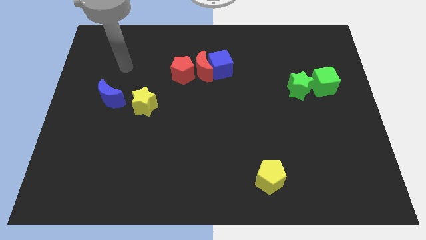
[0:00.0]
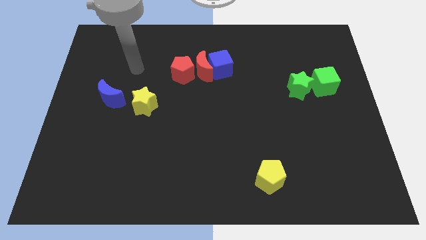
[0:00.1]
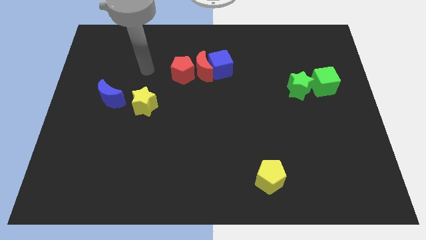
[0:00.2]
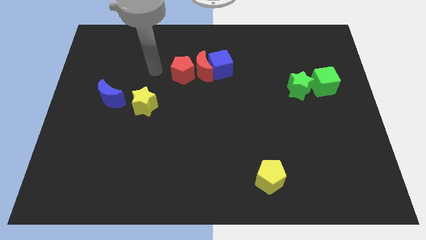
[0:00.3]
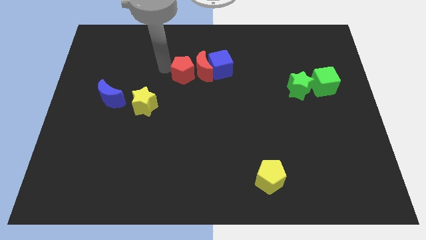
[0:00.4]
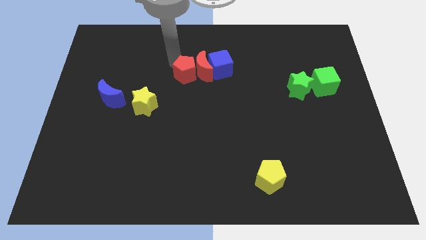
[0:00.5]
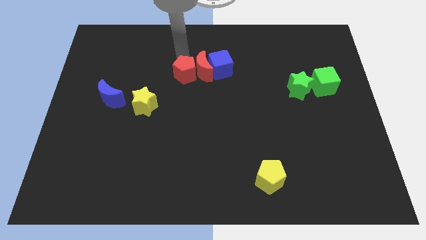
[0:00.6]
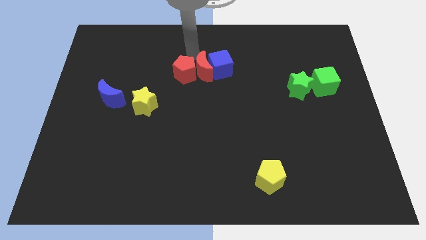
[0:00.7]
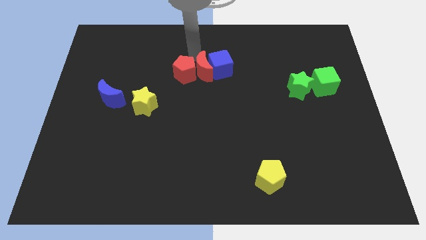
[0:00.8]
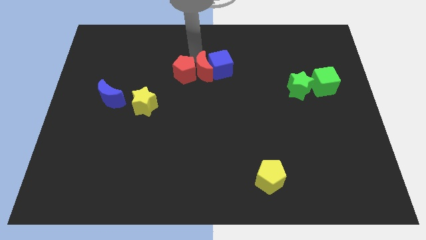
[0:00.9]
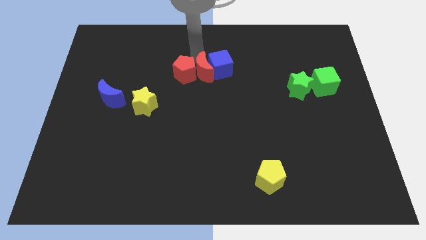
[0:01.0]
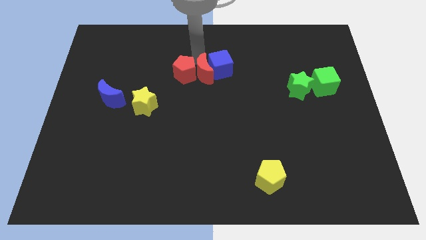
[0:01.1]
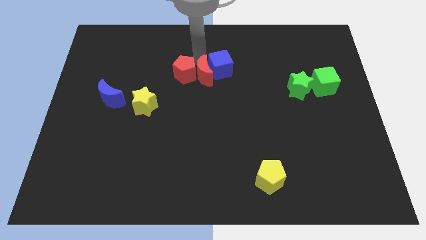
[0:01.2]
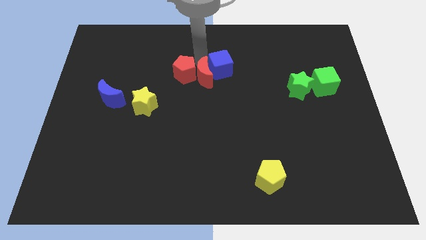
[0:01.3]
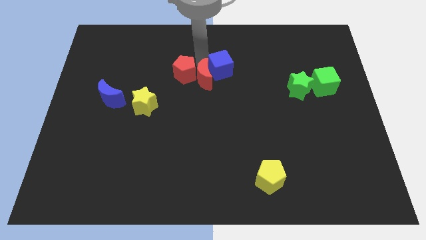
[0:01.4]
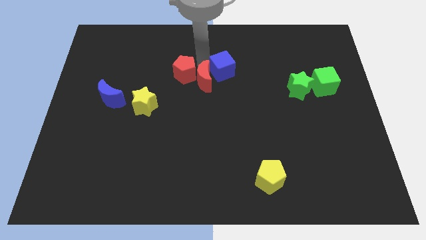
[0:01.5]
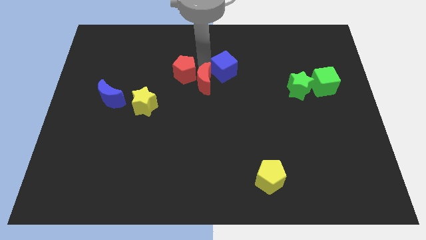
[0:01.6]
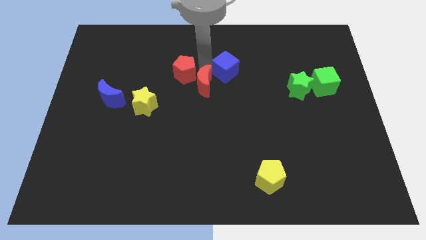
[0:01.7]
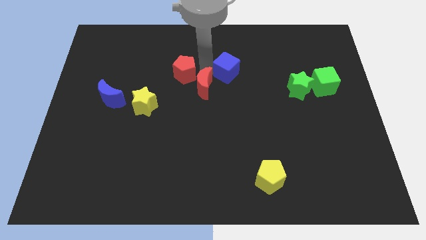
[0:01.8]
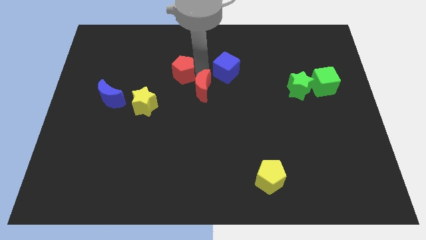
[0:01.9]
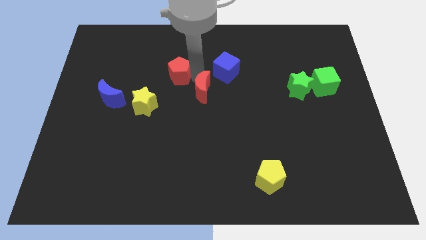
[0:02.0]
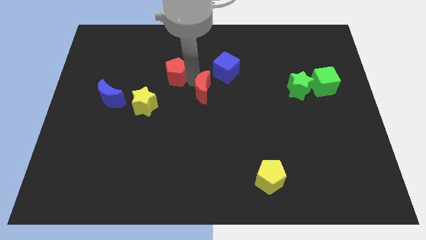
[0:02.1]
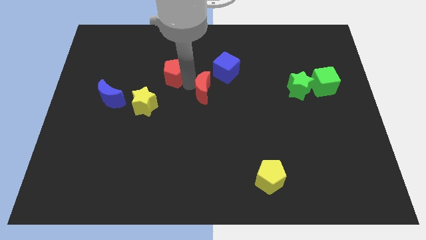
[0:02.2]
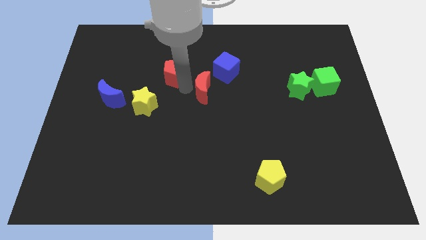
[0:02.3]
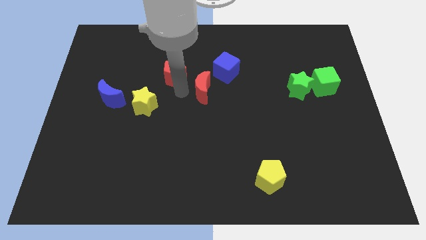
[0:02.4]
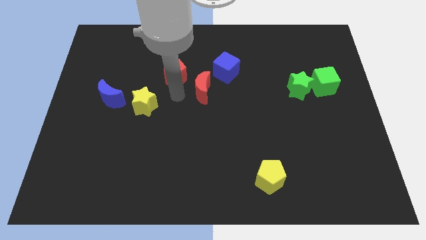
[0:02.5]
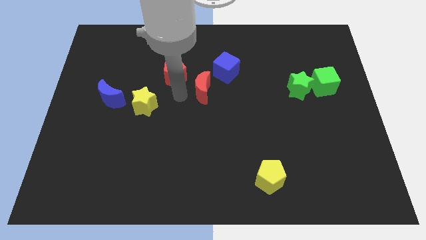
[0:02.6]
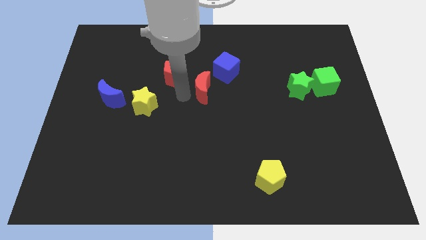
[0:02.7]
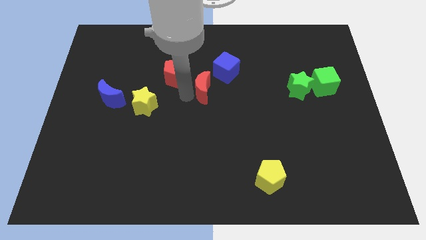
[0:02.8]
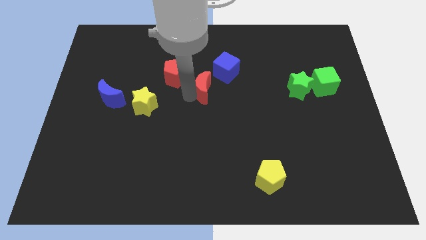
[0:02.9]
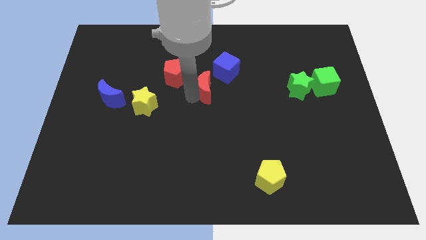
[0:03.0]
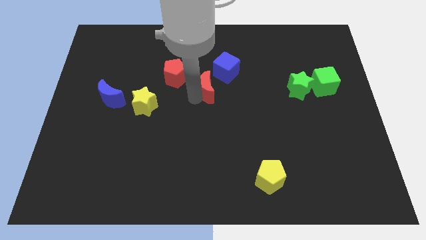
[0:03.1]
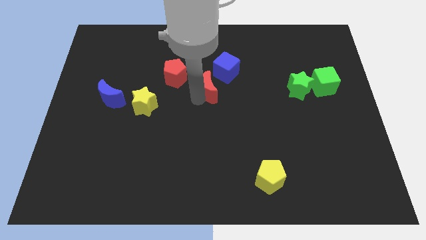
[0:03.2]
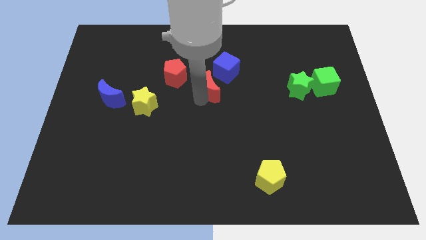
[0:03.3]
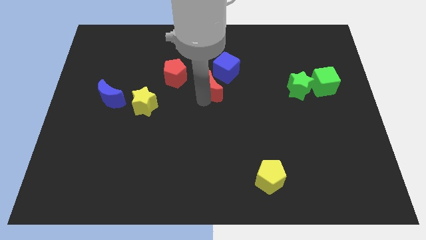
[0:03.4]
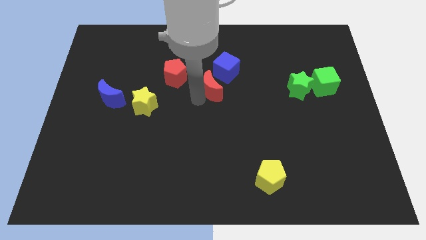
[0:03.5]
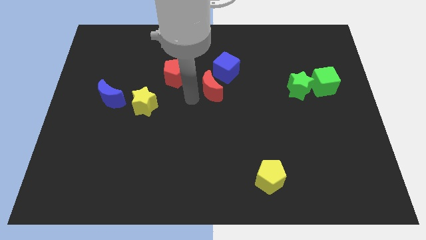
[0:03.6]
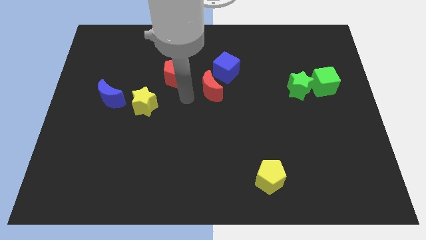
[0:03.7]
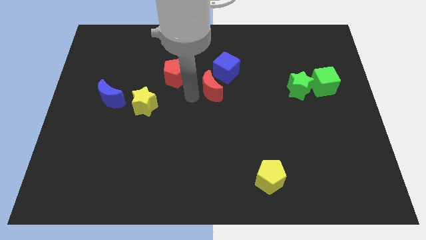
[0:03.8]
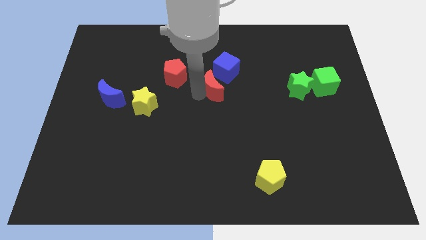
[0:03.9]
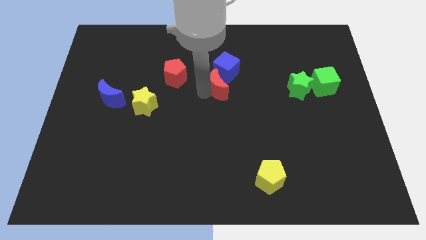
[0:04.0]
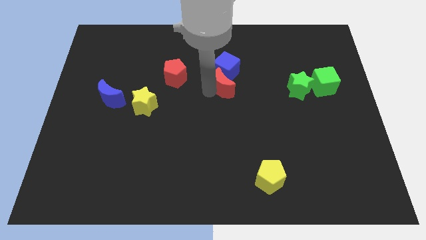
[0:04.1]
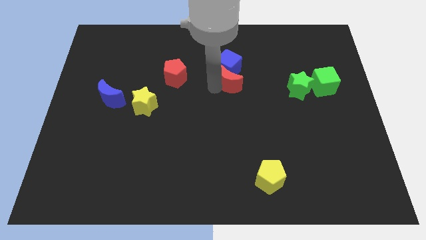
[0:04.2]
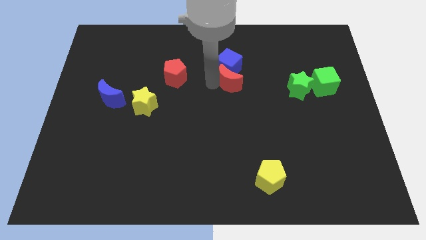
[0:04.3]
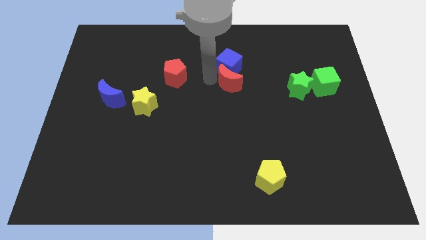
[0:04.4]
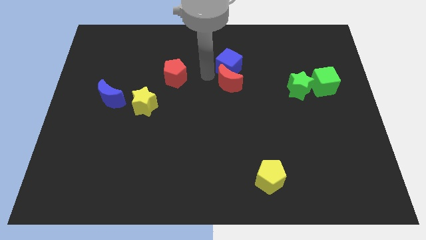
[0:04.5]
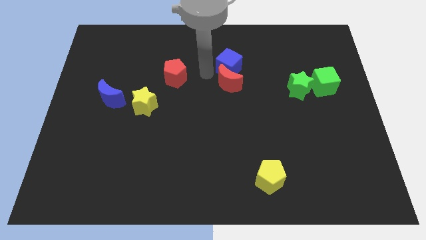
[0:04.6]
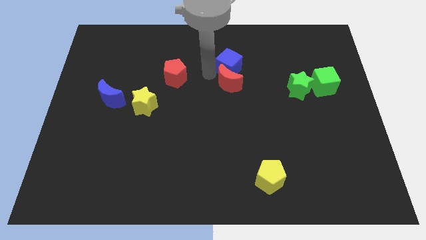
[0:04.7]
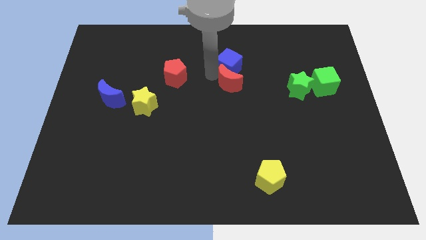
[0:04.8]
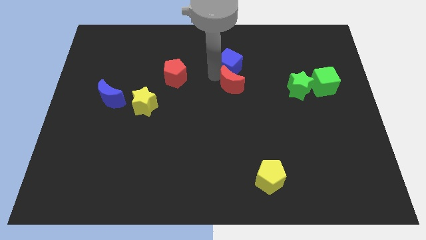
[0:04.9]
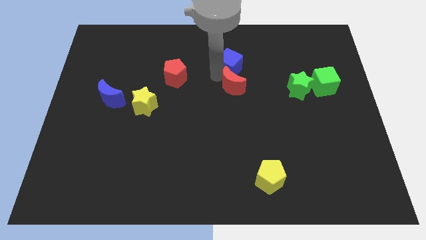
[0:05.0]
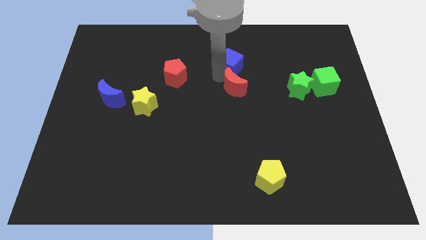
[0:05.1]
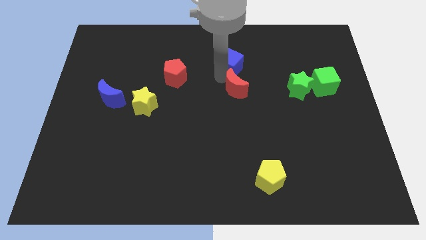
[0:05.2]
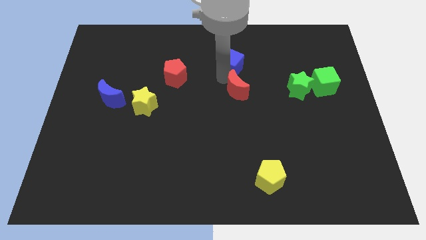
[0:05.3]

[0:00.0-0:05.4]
move the red moon away from the blue cube and red pentagon

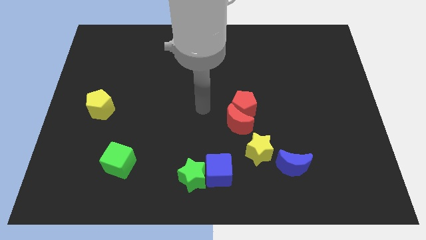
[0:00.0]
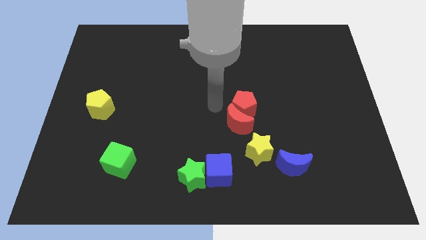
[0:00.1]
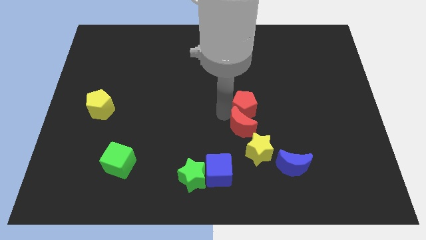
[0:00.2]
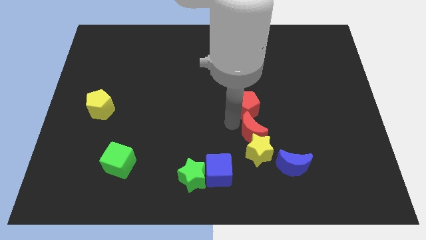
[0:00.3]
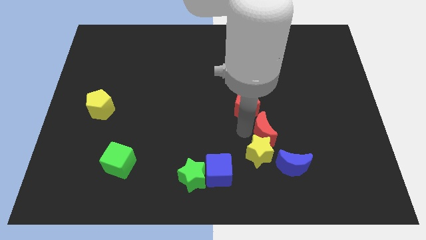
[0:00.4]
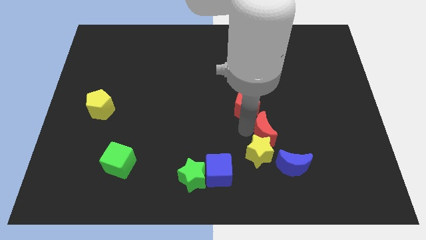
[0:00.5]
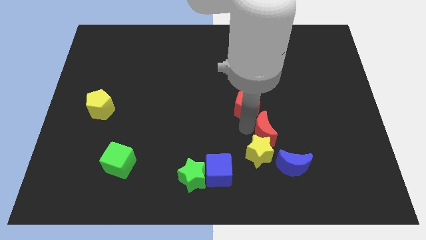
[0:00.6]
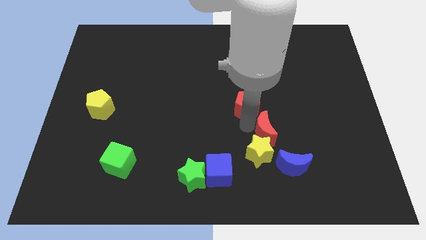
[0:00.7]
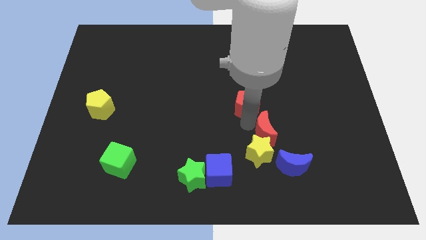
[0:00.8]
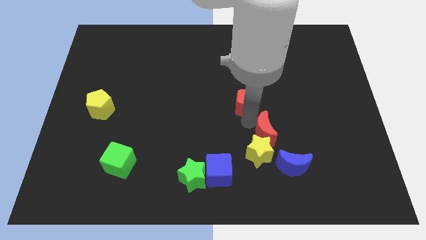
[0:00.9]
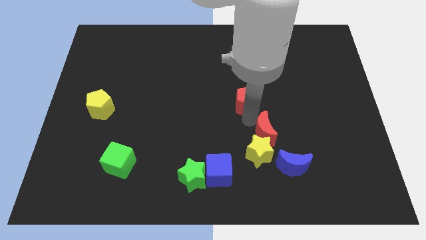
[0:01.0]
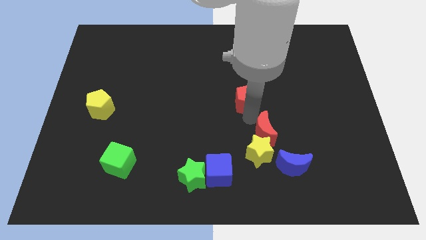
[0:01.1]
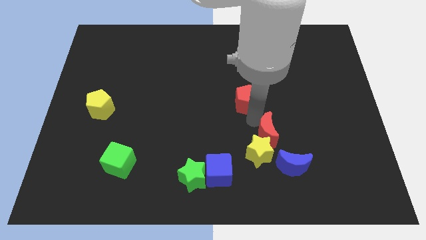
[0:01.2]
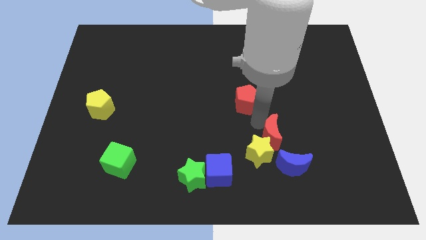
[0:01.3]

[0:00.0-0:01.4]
move the red pentagon away from the red moon

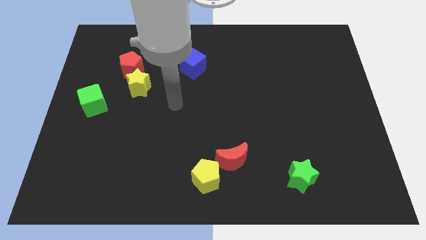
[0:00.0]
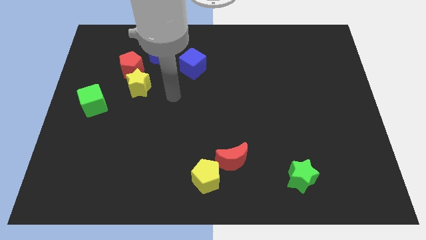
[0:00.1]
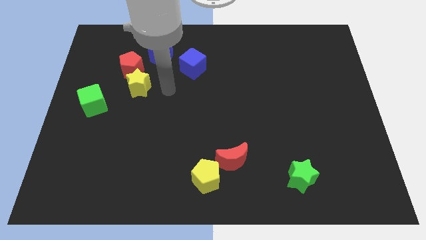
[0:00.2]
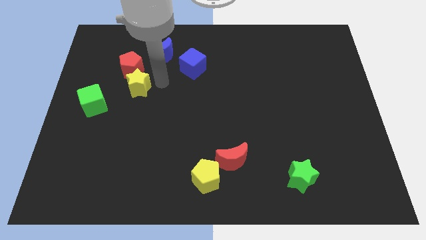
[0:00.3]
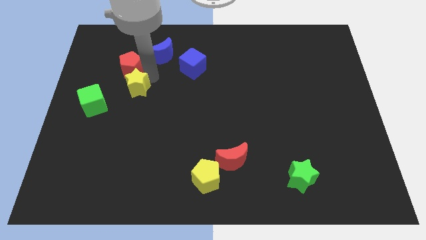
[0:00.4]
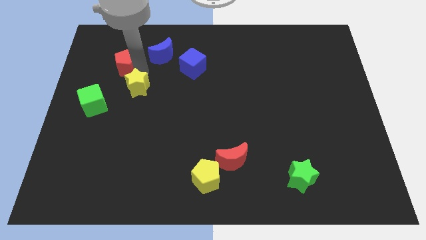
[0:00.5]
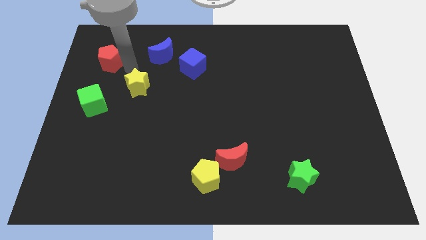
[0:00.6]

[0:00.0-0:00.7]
pull the yellow star apart from the red pentagon

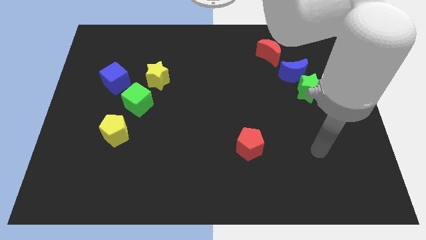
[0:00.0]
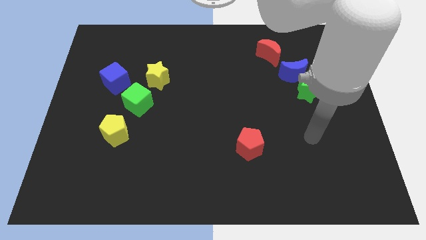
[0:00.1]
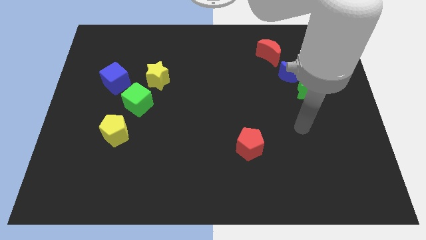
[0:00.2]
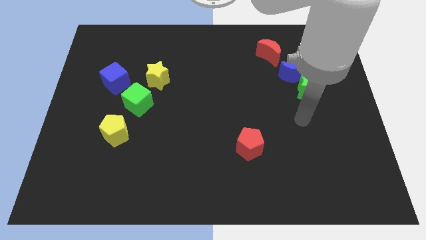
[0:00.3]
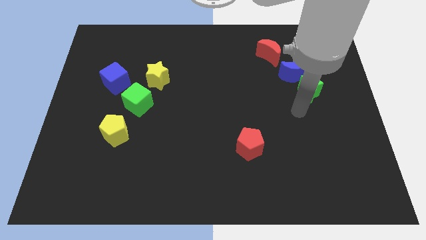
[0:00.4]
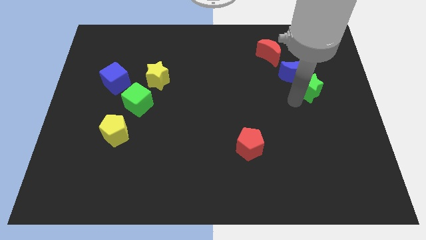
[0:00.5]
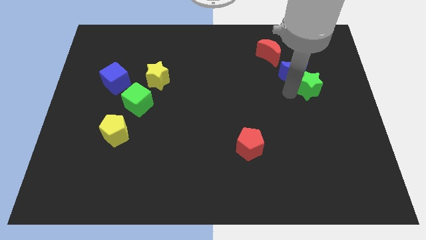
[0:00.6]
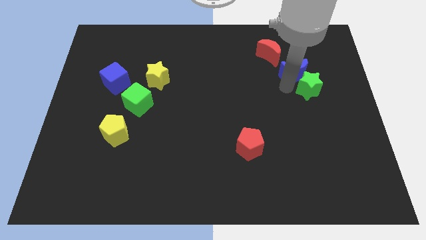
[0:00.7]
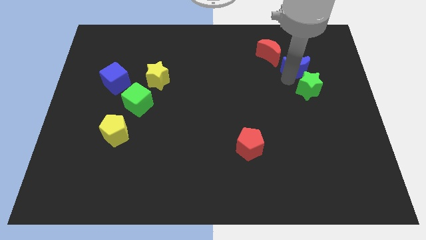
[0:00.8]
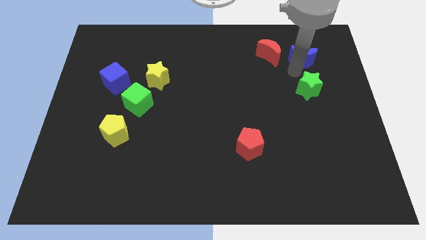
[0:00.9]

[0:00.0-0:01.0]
pull the green star apart from the blue moon

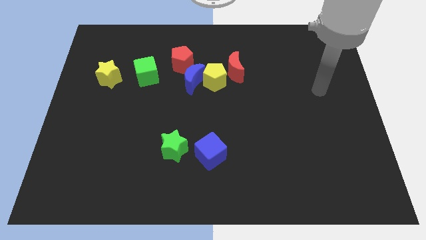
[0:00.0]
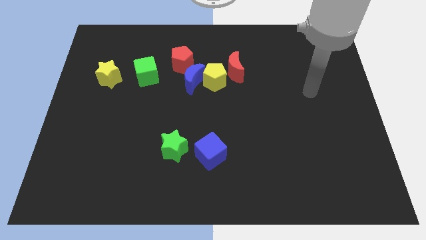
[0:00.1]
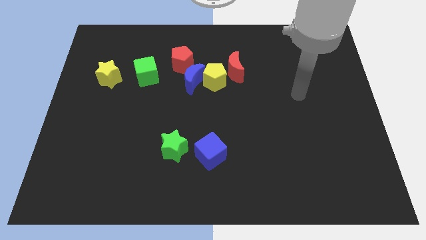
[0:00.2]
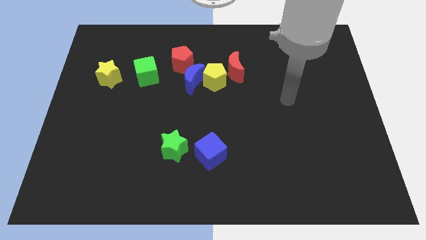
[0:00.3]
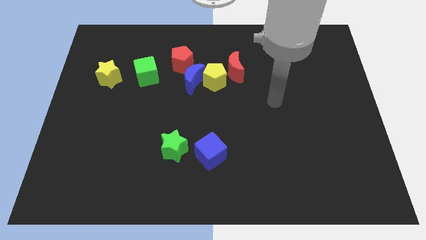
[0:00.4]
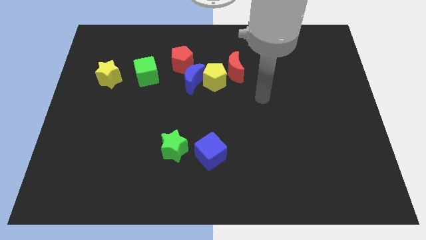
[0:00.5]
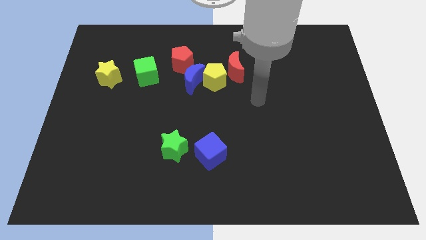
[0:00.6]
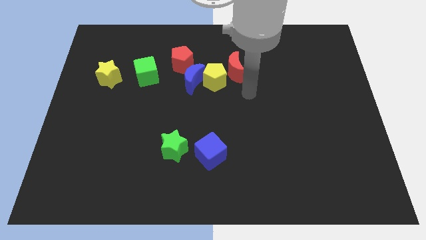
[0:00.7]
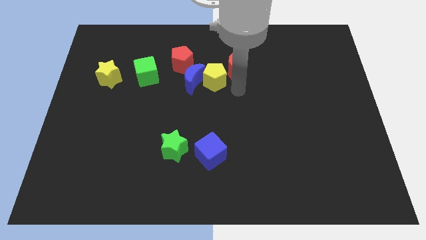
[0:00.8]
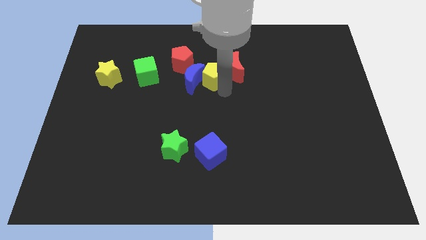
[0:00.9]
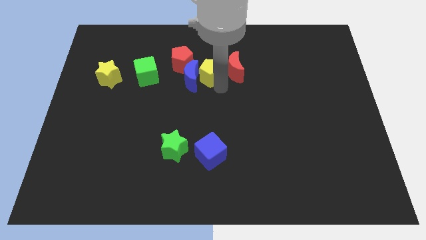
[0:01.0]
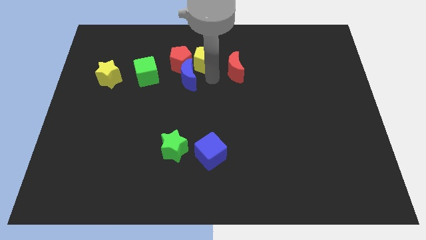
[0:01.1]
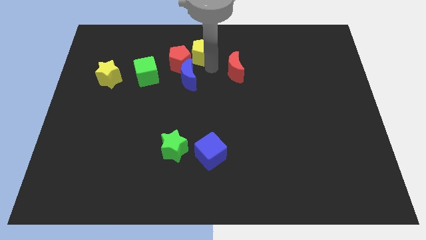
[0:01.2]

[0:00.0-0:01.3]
separate the red moon from the yellow pentagon
